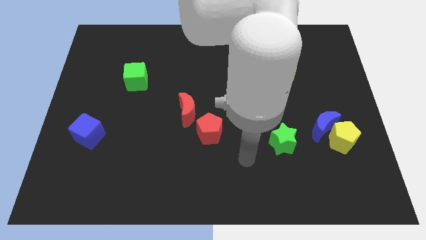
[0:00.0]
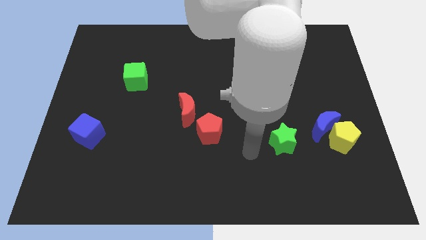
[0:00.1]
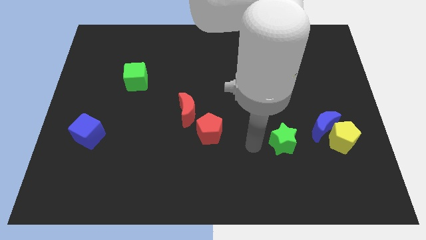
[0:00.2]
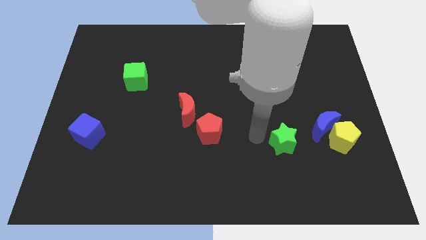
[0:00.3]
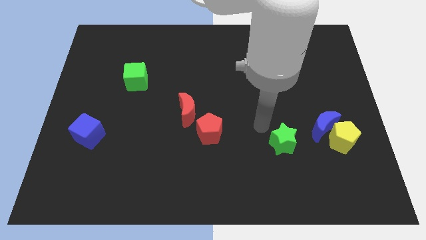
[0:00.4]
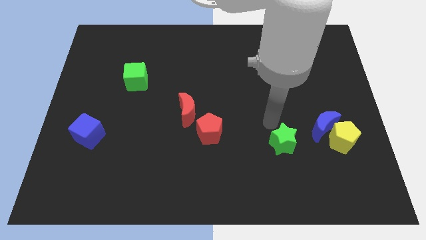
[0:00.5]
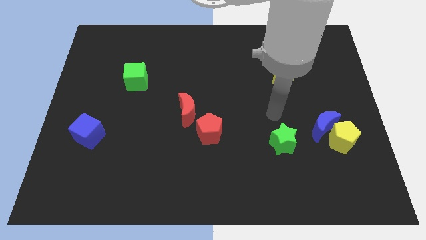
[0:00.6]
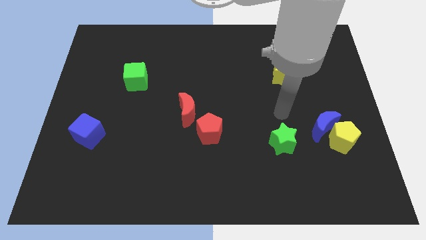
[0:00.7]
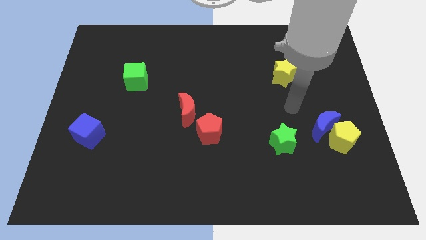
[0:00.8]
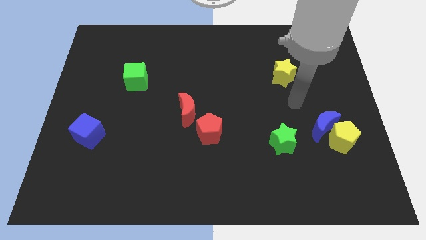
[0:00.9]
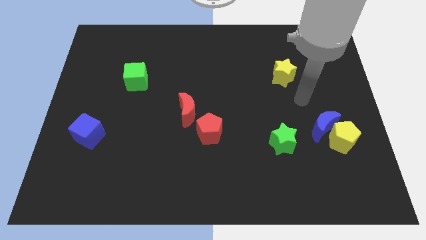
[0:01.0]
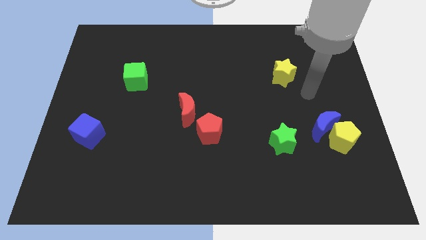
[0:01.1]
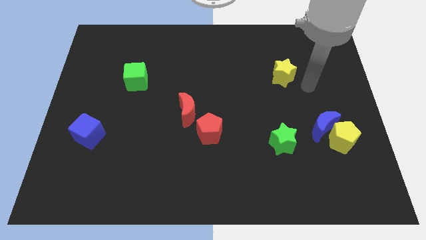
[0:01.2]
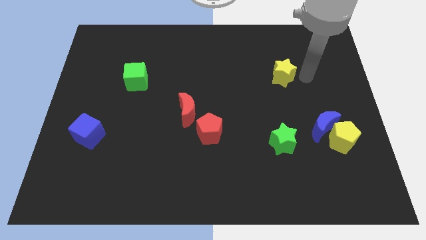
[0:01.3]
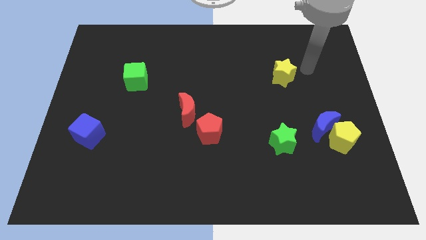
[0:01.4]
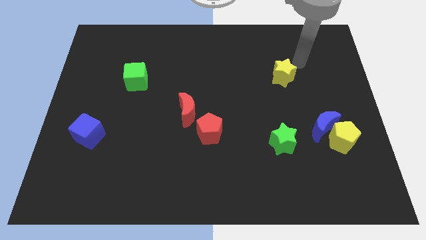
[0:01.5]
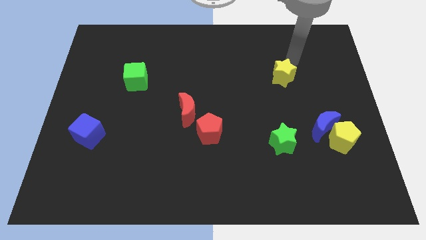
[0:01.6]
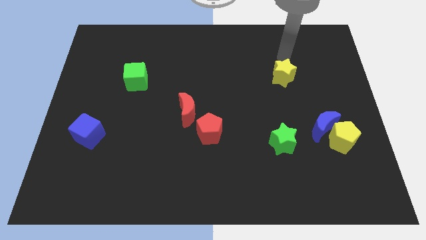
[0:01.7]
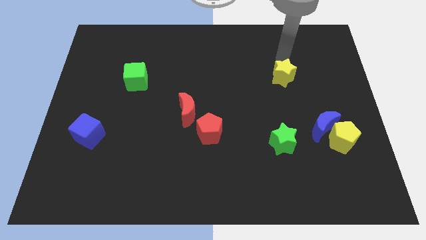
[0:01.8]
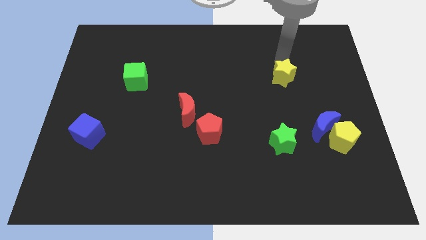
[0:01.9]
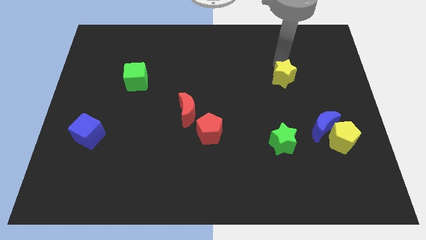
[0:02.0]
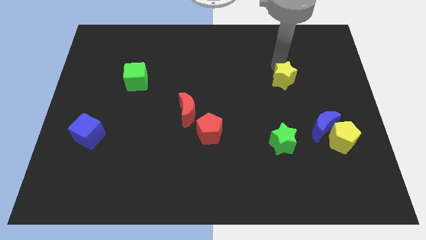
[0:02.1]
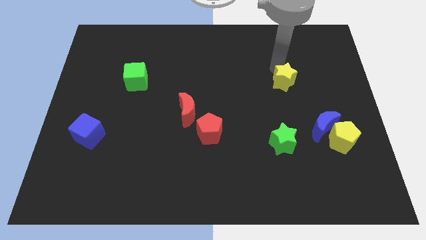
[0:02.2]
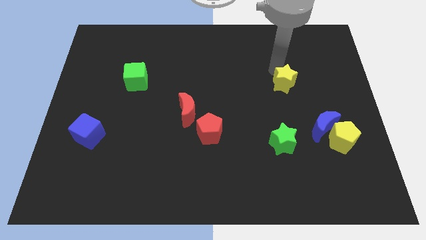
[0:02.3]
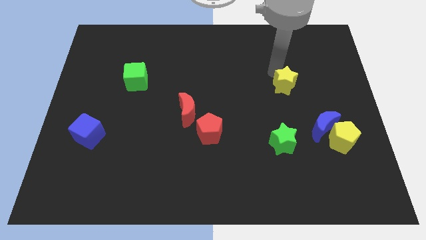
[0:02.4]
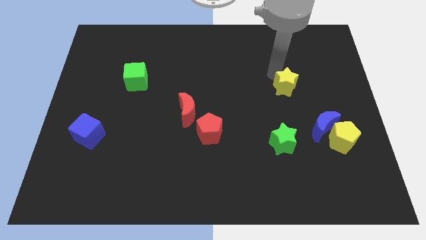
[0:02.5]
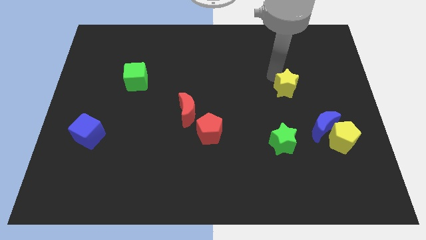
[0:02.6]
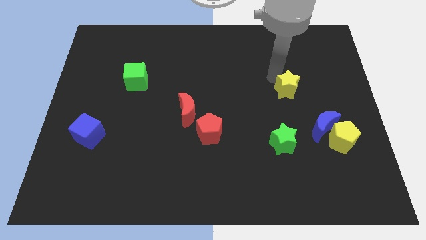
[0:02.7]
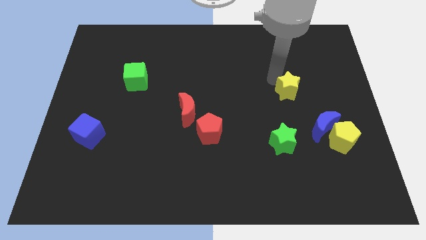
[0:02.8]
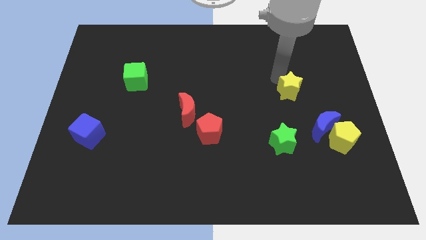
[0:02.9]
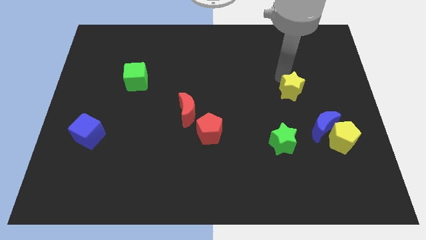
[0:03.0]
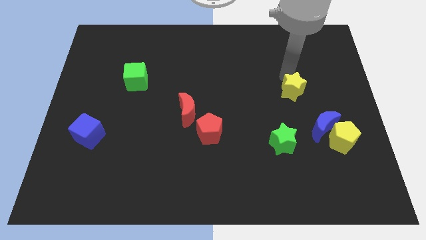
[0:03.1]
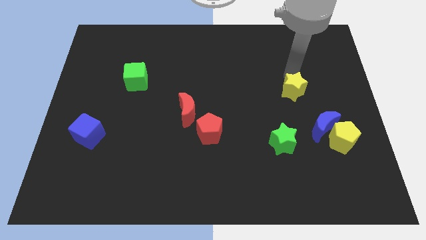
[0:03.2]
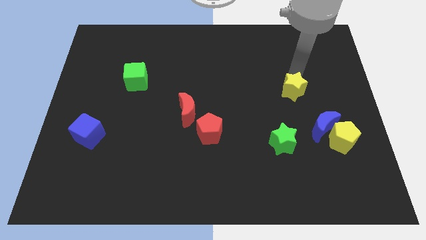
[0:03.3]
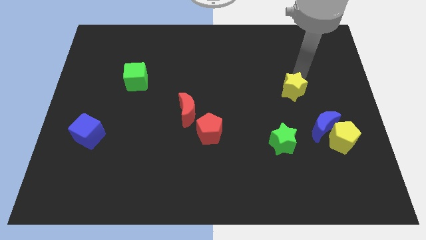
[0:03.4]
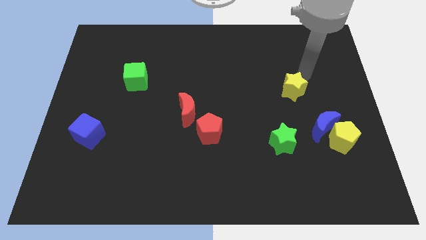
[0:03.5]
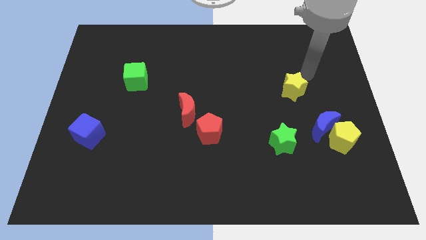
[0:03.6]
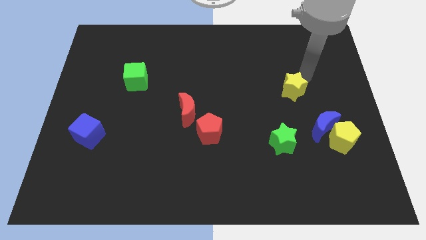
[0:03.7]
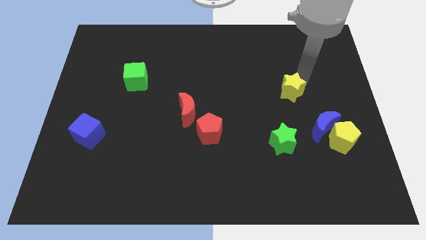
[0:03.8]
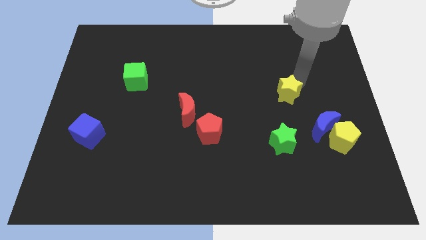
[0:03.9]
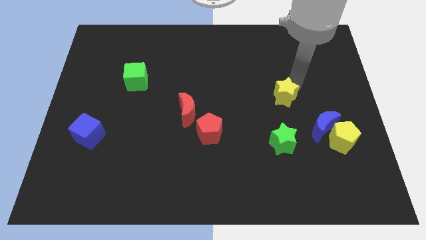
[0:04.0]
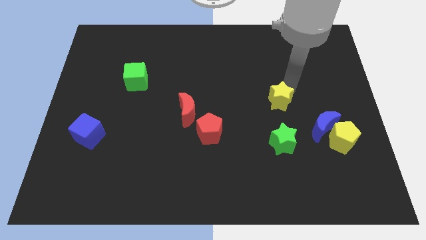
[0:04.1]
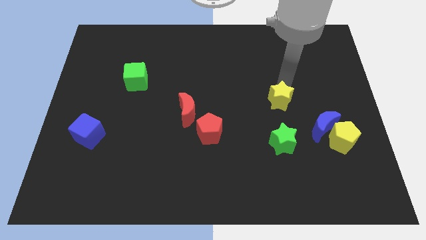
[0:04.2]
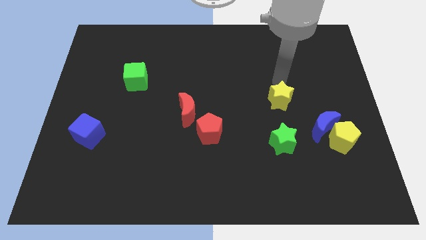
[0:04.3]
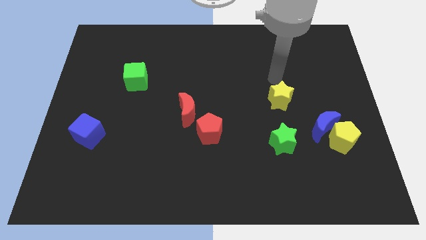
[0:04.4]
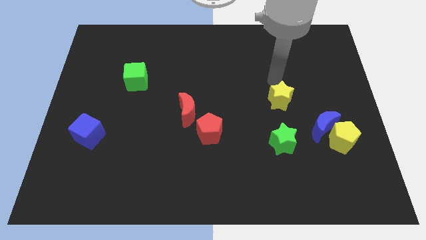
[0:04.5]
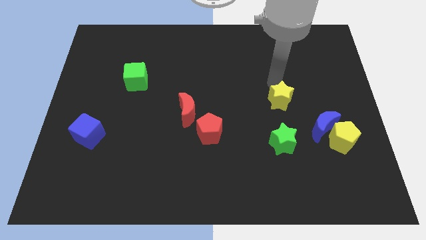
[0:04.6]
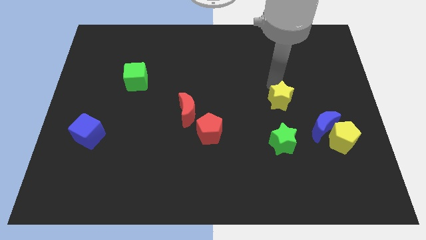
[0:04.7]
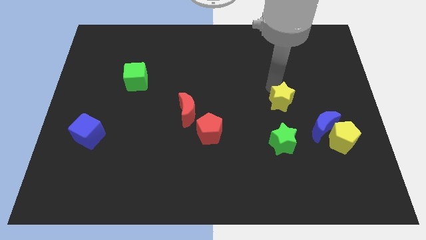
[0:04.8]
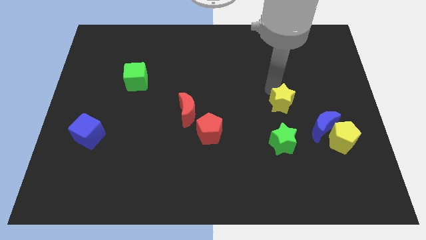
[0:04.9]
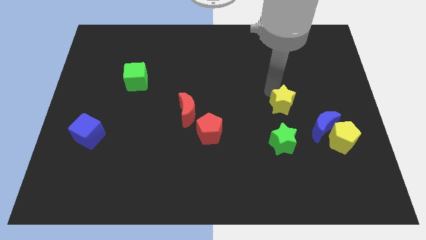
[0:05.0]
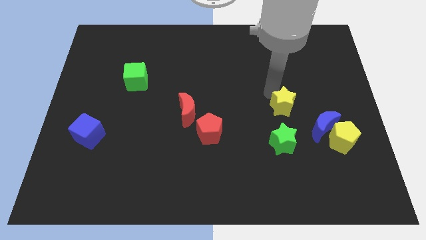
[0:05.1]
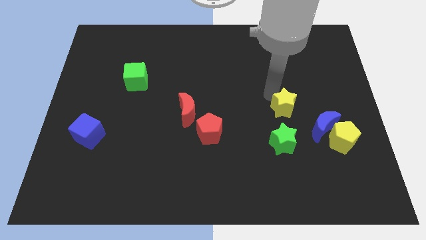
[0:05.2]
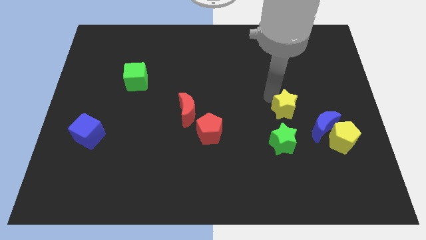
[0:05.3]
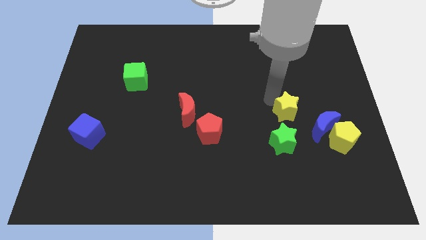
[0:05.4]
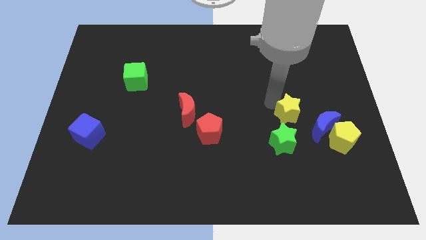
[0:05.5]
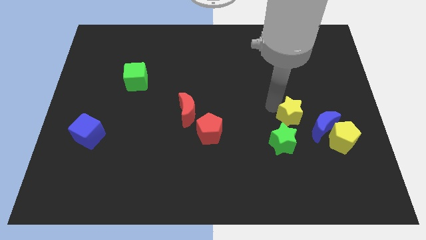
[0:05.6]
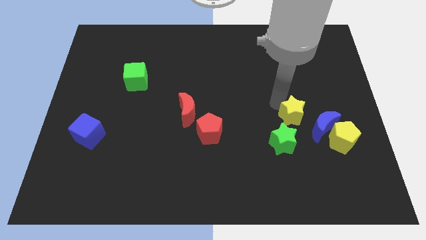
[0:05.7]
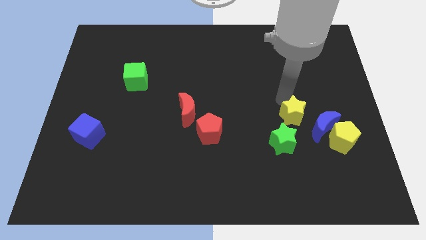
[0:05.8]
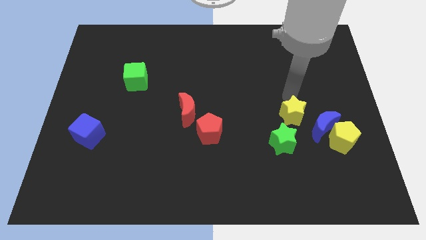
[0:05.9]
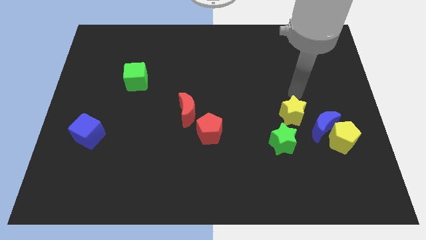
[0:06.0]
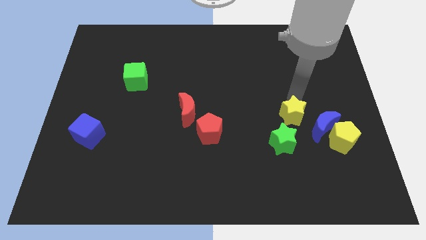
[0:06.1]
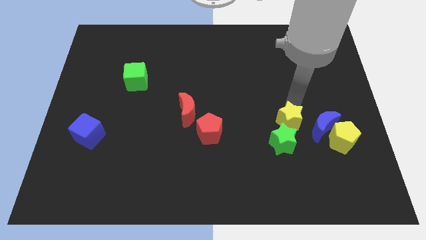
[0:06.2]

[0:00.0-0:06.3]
push the yellow star towards the green star

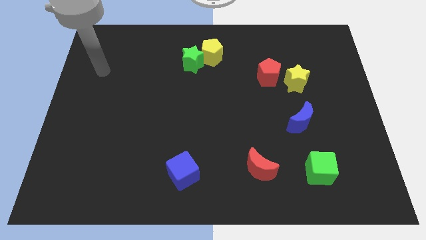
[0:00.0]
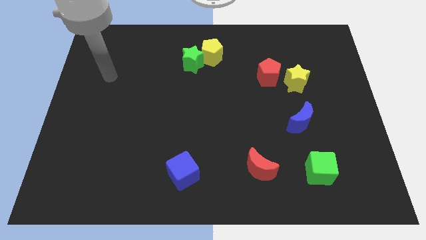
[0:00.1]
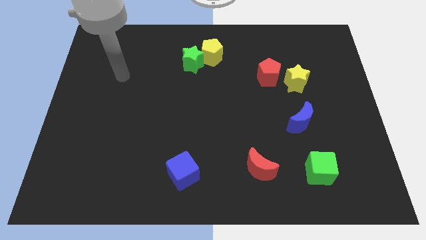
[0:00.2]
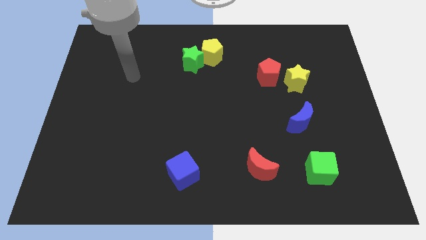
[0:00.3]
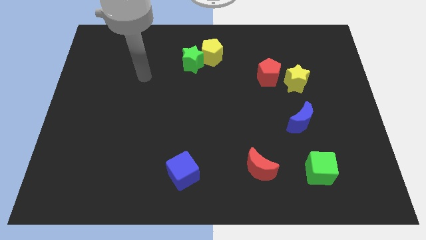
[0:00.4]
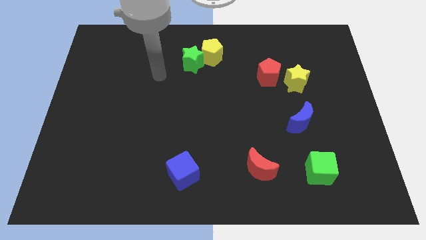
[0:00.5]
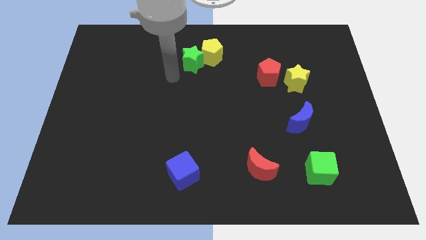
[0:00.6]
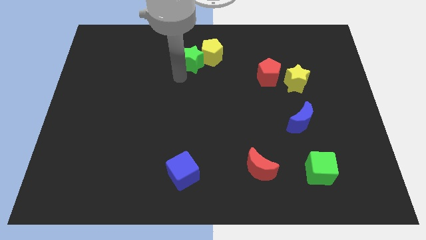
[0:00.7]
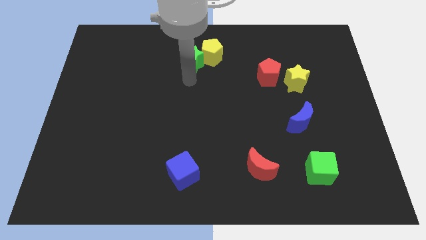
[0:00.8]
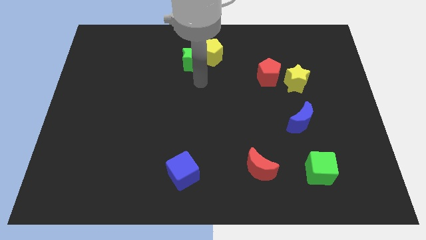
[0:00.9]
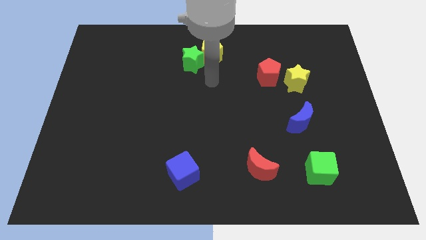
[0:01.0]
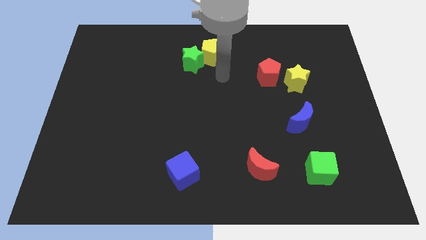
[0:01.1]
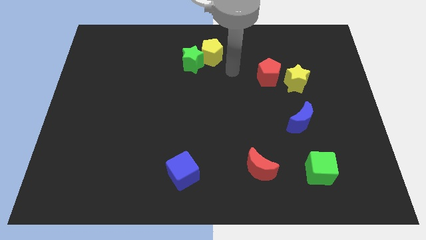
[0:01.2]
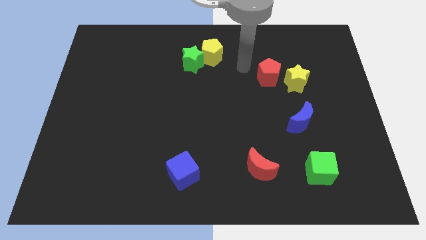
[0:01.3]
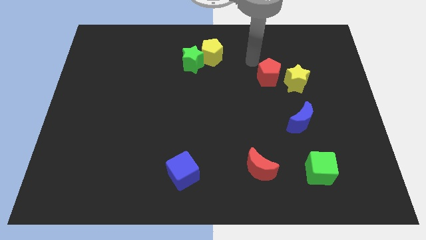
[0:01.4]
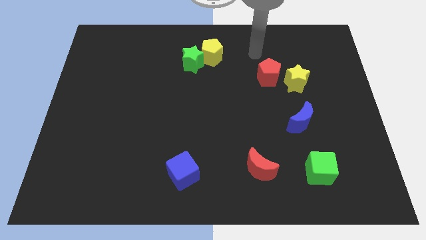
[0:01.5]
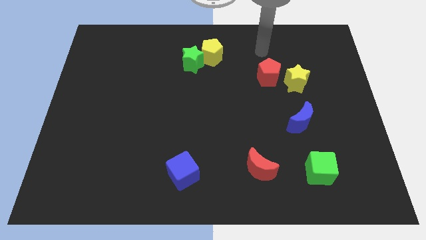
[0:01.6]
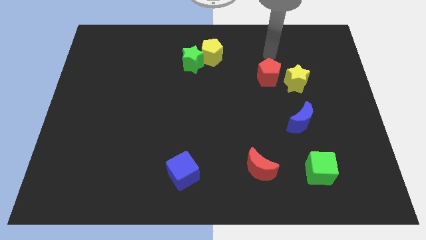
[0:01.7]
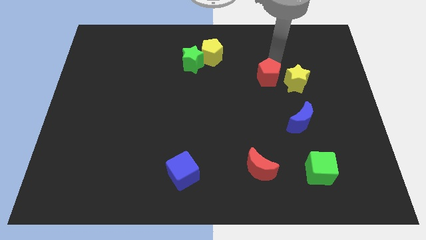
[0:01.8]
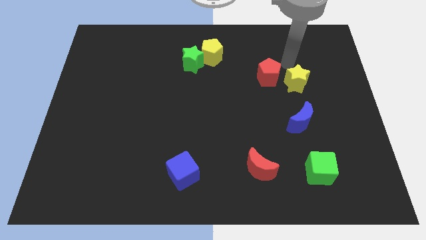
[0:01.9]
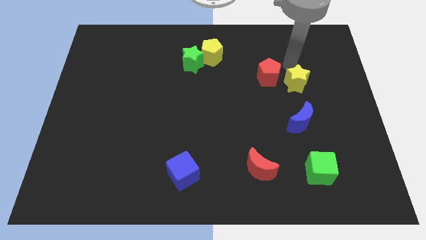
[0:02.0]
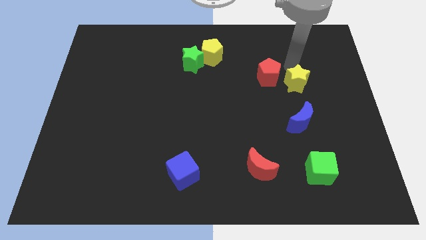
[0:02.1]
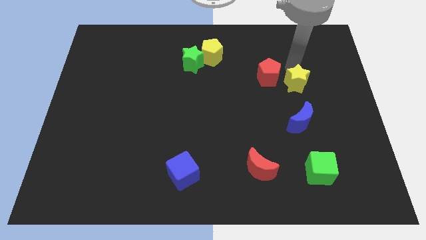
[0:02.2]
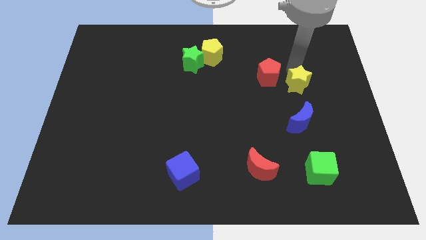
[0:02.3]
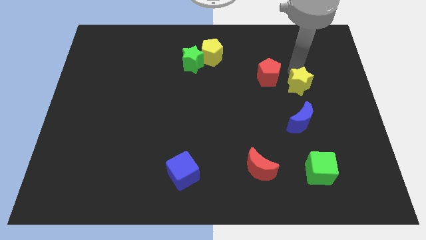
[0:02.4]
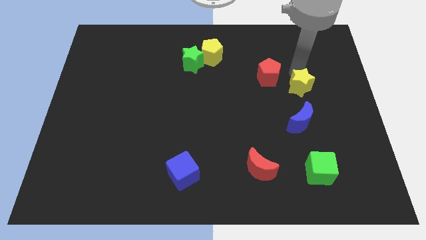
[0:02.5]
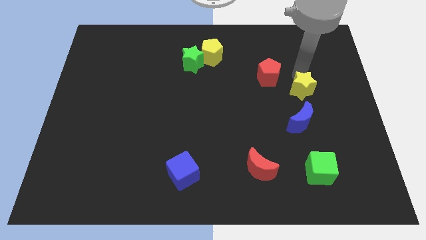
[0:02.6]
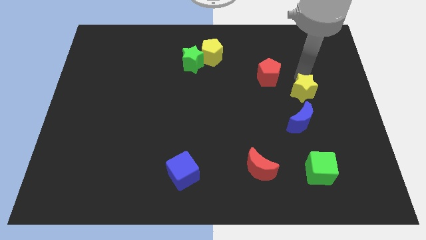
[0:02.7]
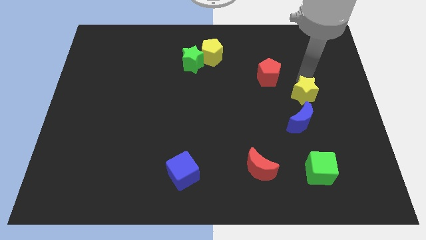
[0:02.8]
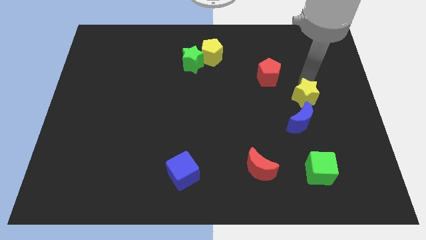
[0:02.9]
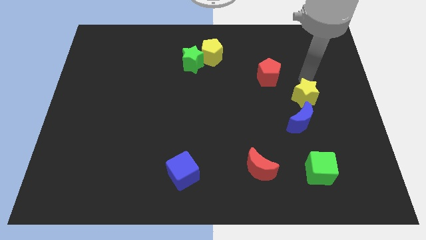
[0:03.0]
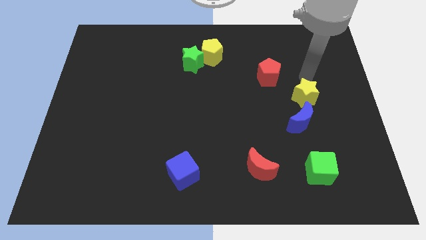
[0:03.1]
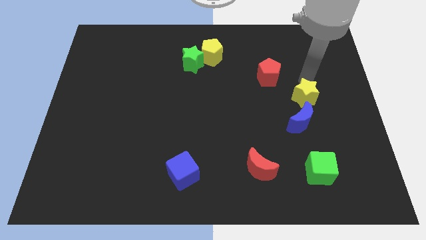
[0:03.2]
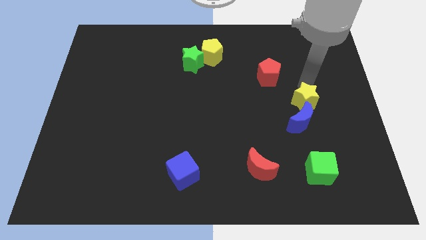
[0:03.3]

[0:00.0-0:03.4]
put the yellow star towards the blue moon
